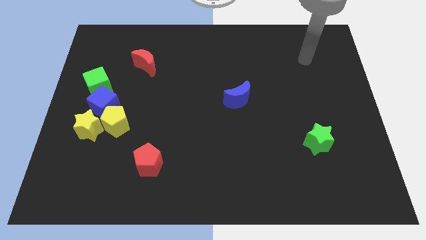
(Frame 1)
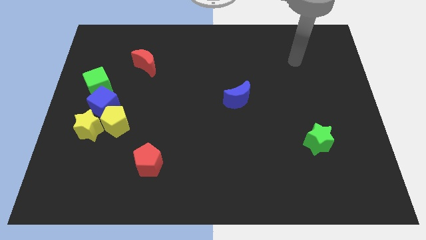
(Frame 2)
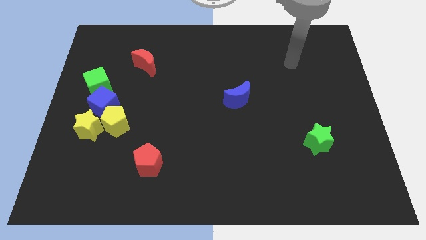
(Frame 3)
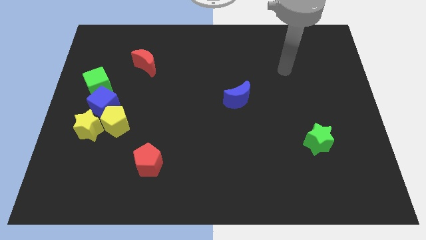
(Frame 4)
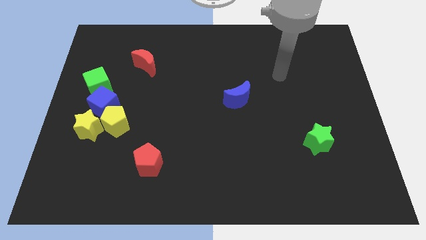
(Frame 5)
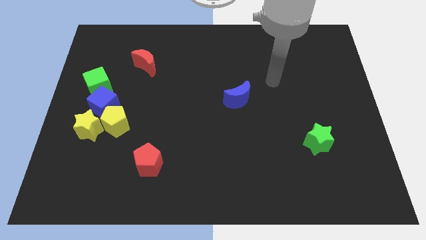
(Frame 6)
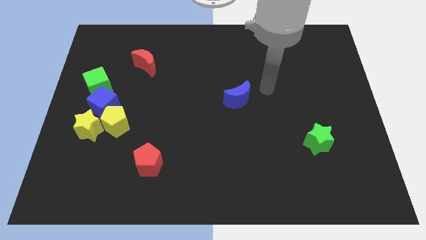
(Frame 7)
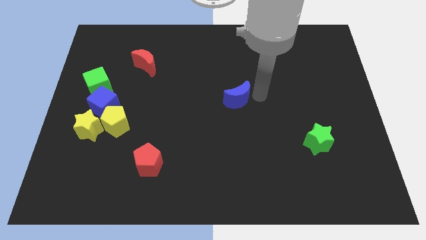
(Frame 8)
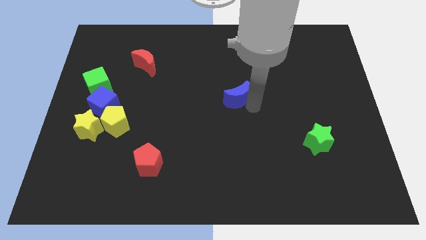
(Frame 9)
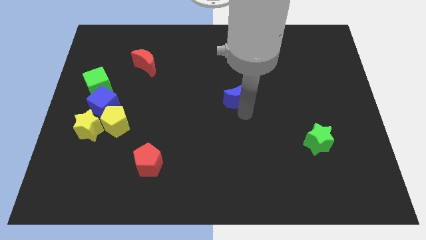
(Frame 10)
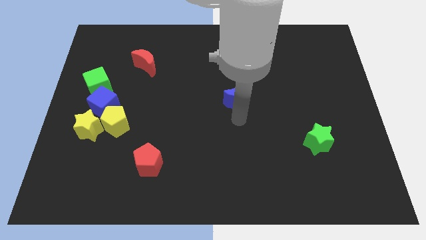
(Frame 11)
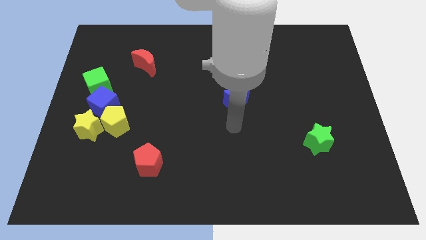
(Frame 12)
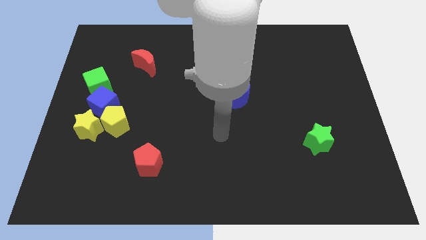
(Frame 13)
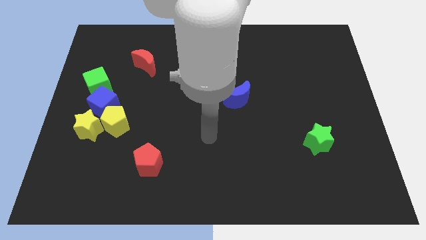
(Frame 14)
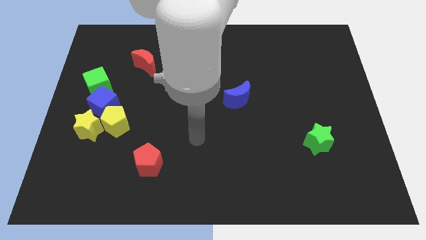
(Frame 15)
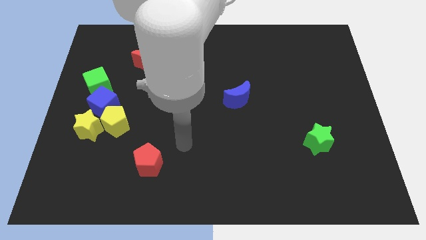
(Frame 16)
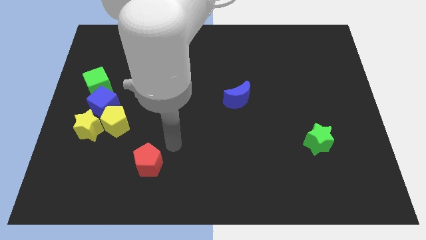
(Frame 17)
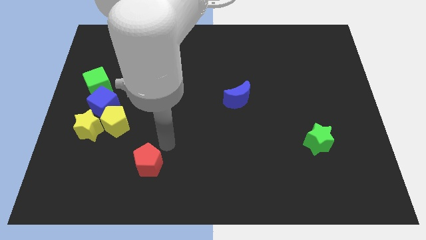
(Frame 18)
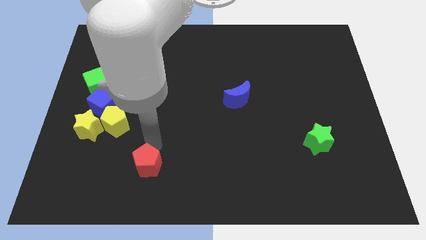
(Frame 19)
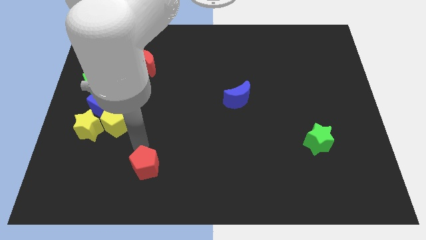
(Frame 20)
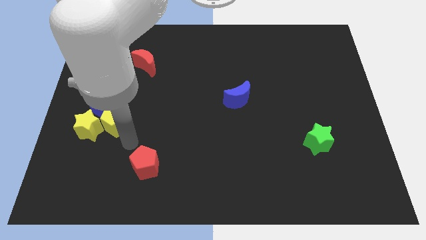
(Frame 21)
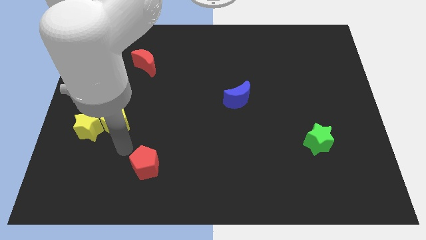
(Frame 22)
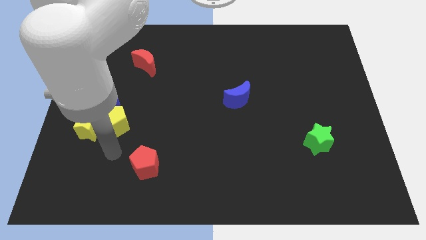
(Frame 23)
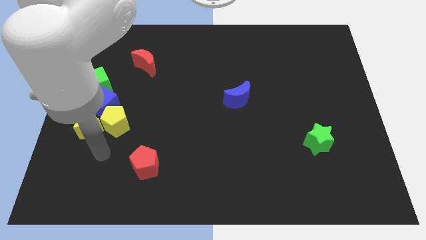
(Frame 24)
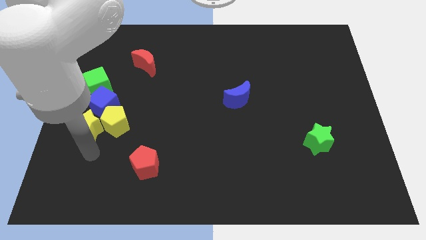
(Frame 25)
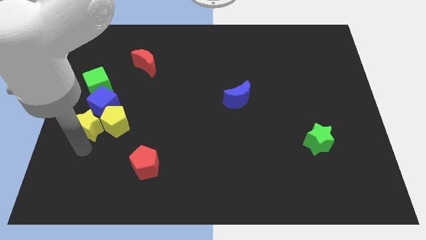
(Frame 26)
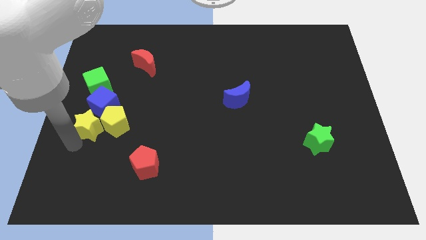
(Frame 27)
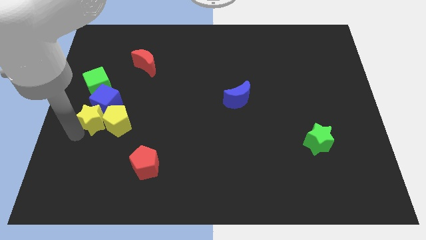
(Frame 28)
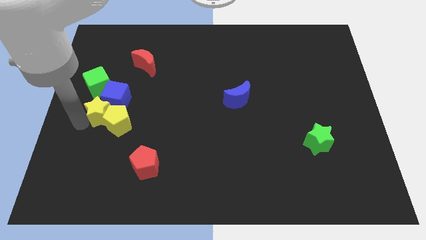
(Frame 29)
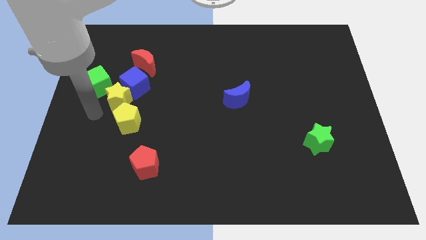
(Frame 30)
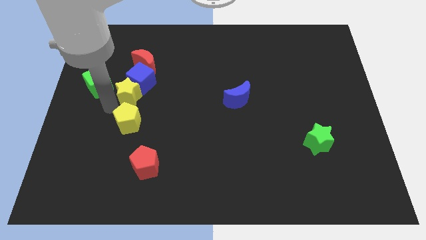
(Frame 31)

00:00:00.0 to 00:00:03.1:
separate the yellow pentagon from the yellow star and blue cube

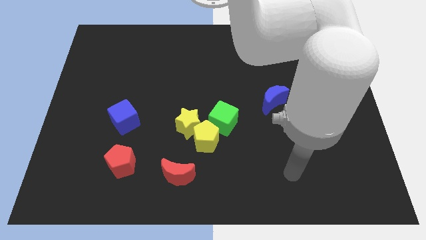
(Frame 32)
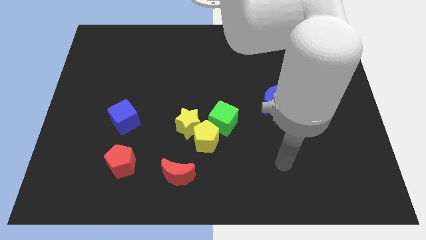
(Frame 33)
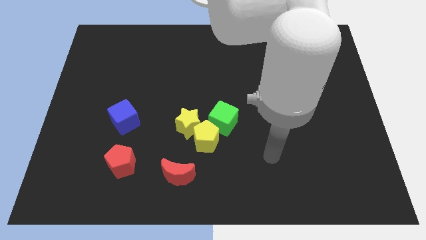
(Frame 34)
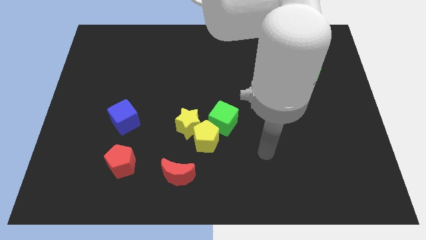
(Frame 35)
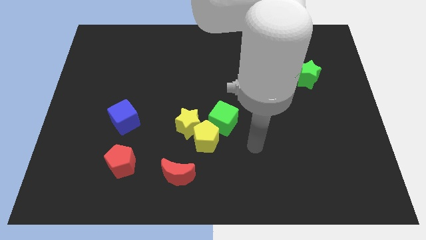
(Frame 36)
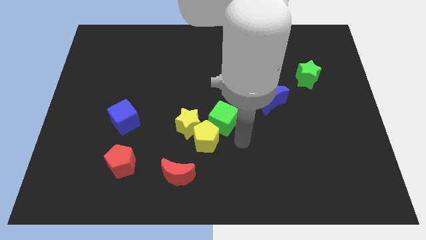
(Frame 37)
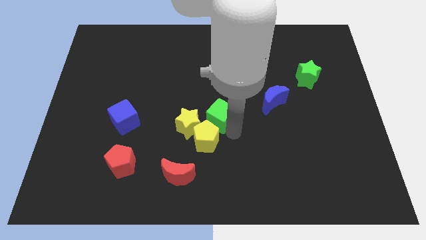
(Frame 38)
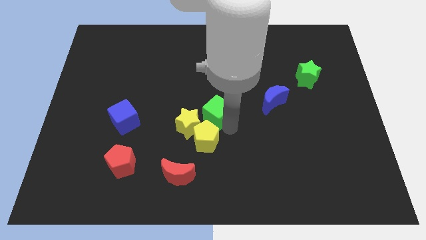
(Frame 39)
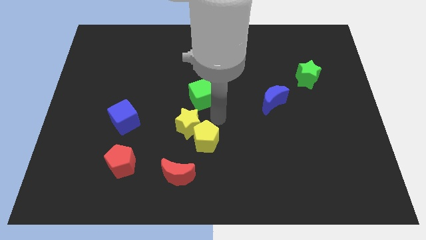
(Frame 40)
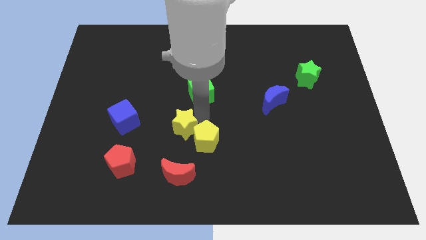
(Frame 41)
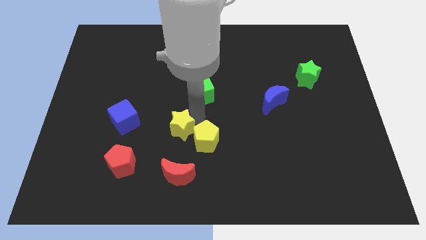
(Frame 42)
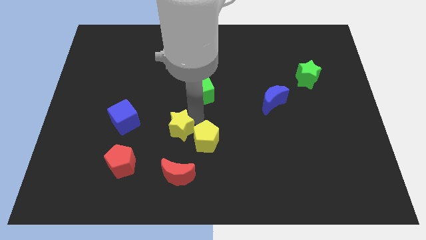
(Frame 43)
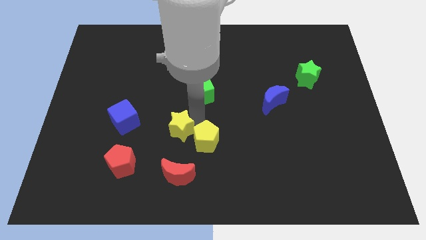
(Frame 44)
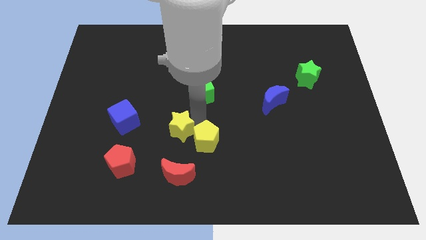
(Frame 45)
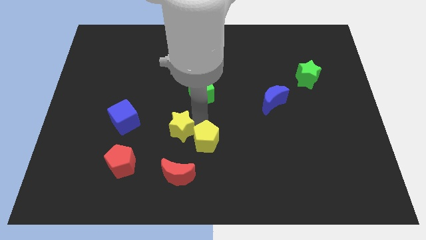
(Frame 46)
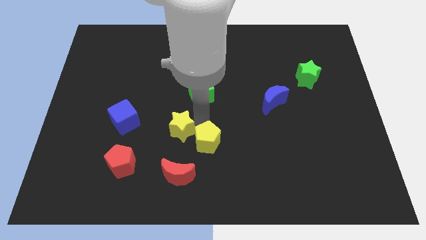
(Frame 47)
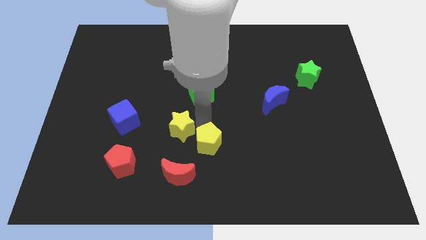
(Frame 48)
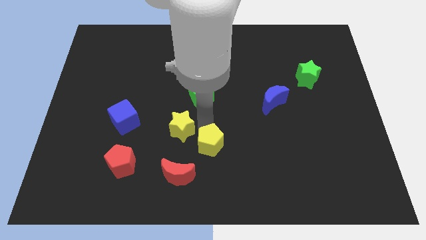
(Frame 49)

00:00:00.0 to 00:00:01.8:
pull the yellow pentagon apart from the yellow star and green cube

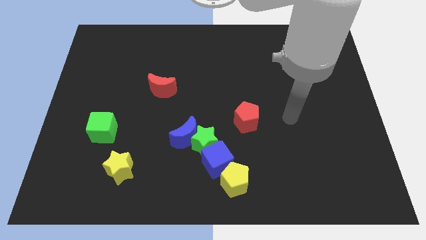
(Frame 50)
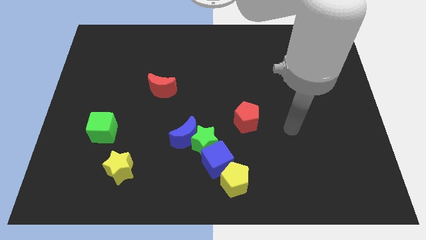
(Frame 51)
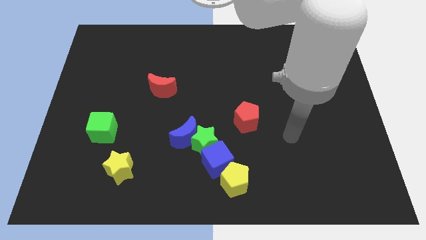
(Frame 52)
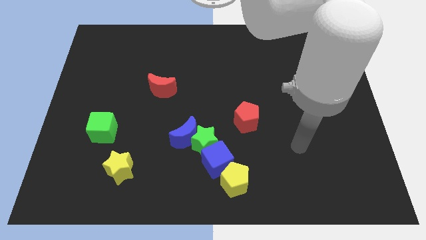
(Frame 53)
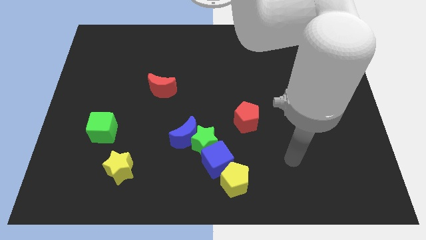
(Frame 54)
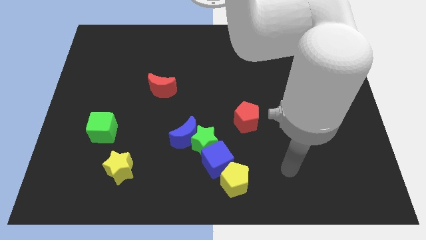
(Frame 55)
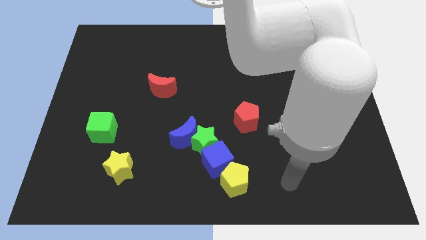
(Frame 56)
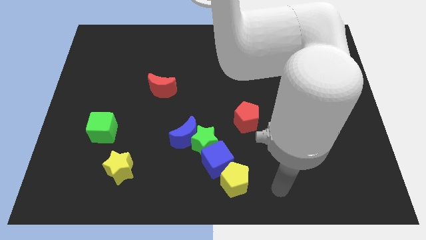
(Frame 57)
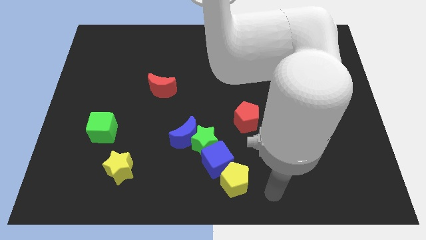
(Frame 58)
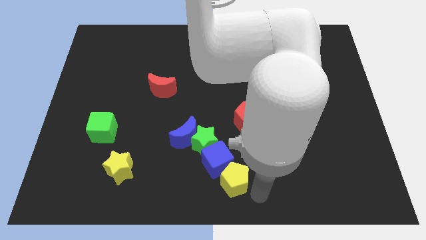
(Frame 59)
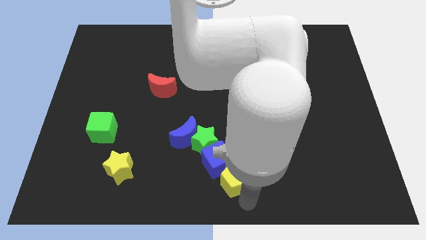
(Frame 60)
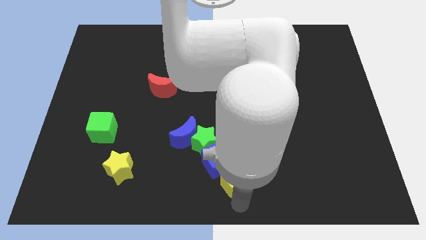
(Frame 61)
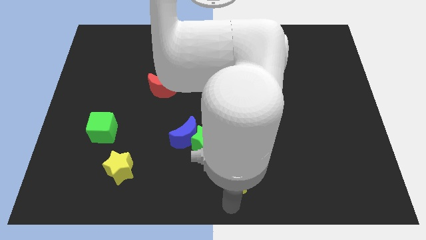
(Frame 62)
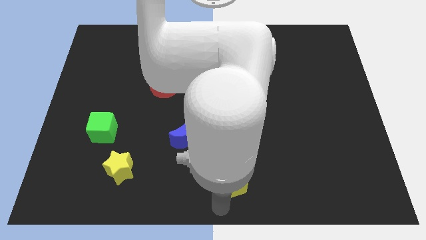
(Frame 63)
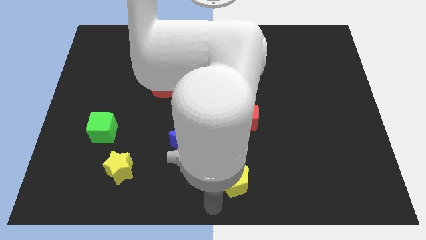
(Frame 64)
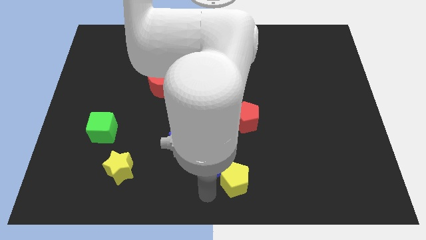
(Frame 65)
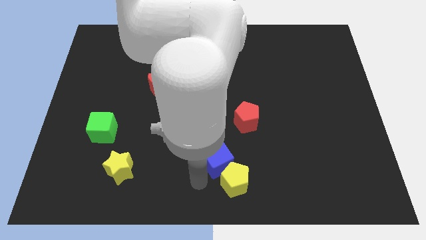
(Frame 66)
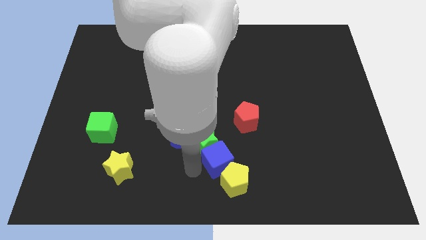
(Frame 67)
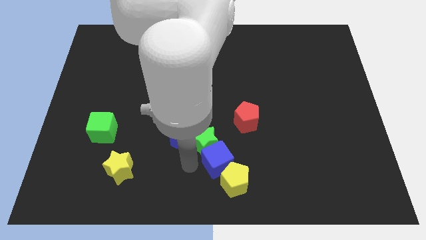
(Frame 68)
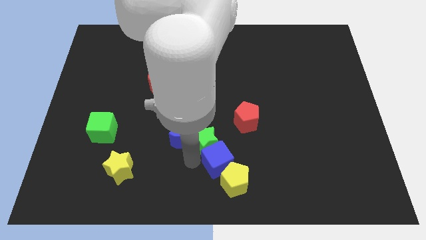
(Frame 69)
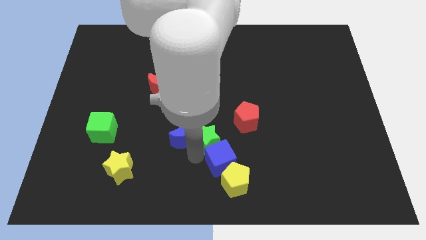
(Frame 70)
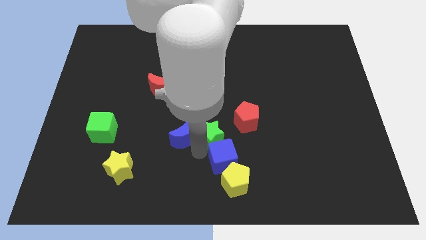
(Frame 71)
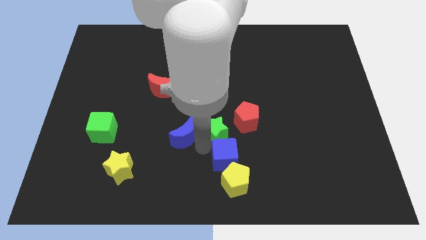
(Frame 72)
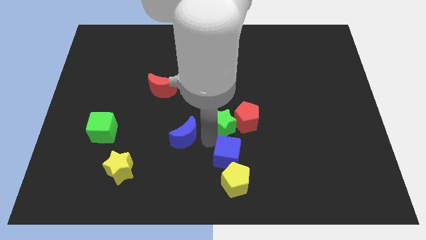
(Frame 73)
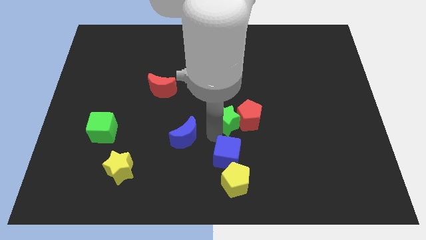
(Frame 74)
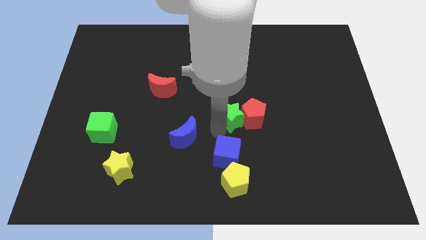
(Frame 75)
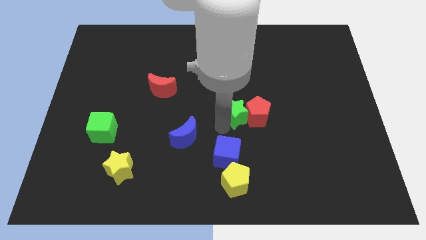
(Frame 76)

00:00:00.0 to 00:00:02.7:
separate the green star from the blue moon and blue cube

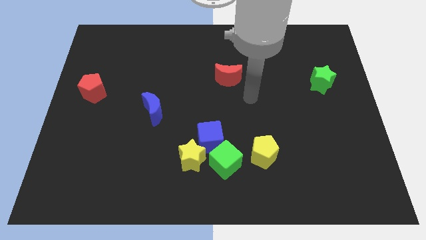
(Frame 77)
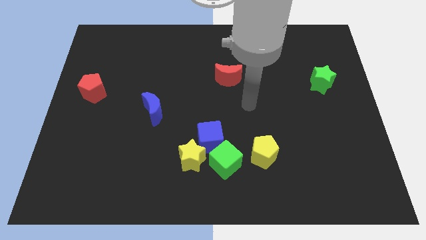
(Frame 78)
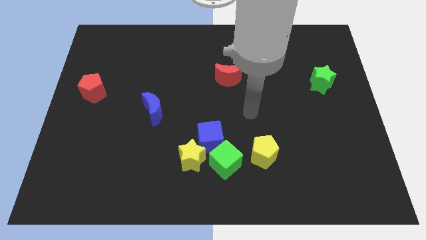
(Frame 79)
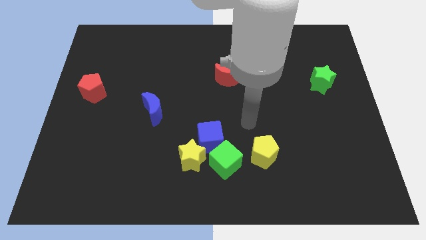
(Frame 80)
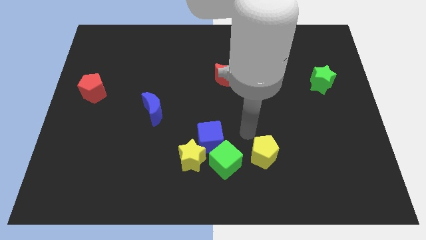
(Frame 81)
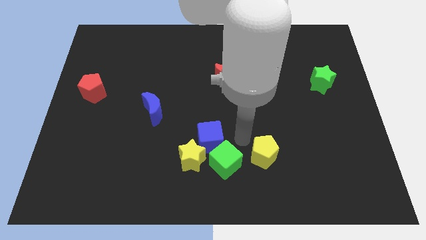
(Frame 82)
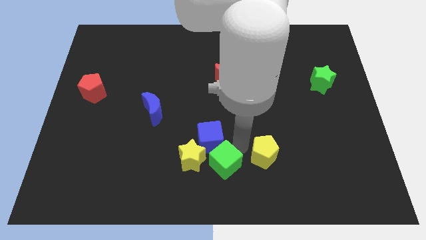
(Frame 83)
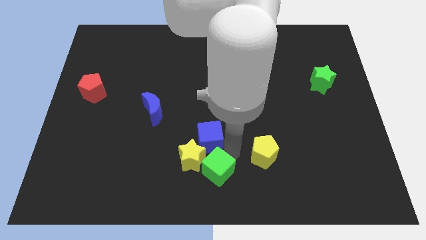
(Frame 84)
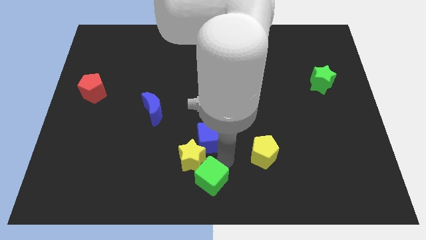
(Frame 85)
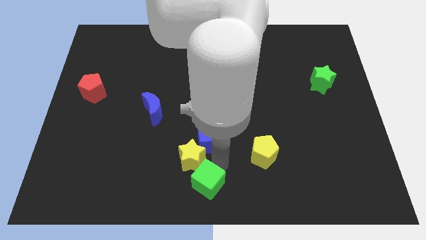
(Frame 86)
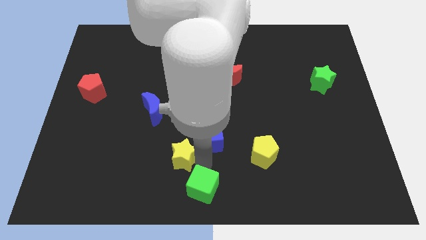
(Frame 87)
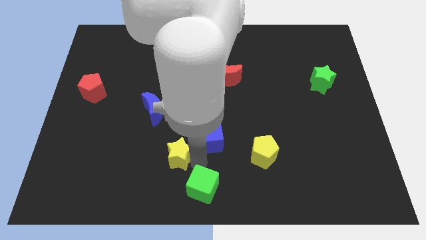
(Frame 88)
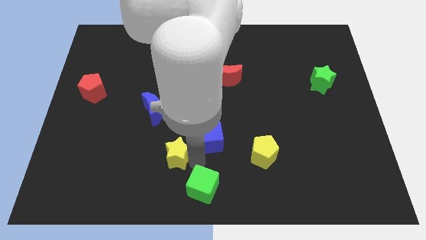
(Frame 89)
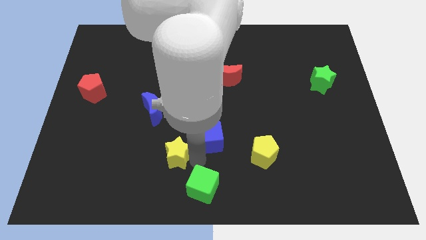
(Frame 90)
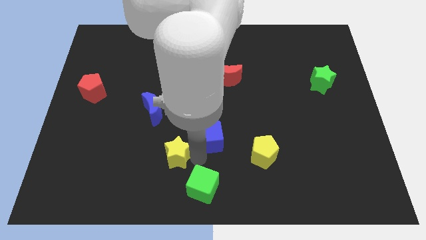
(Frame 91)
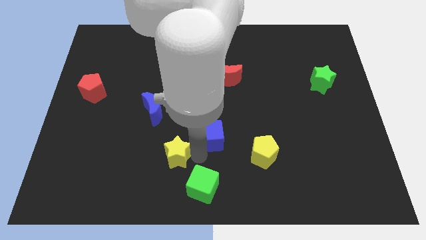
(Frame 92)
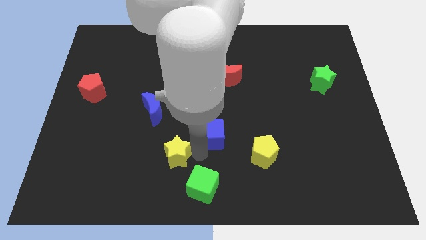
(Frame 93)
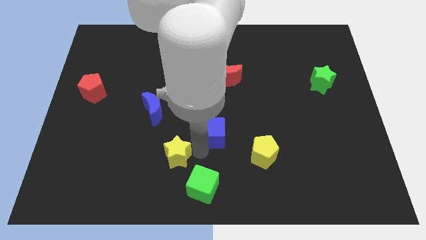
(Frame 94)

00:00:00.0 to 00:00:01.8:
move the blue cube away from the yellow star and green cube

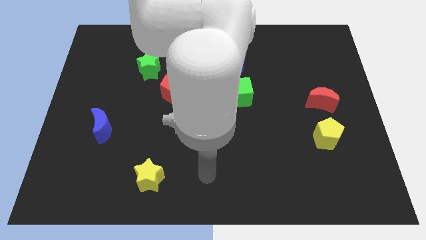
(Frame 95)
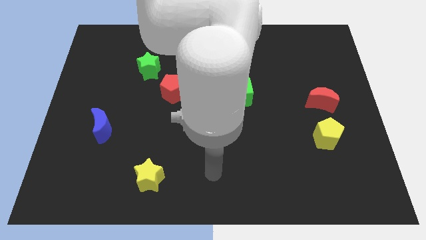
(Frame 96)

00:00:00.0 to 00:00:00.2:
move the red moon away from the yellow pentagon
